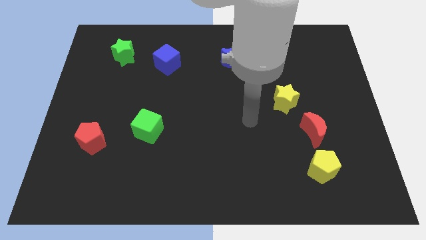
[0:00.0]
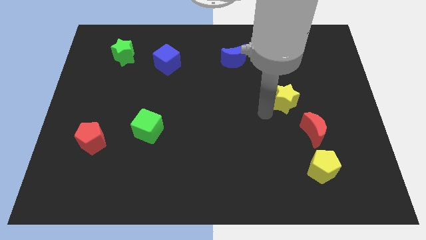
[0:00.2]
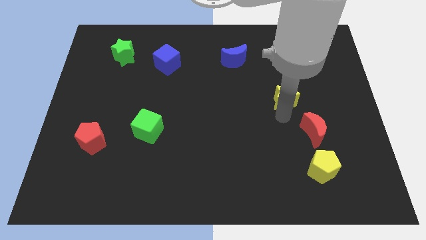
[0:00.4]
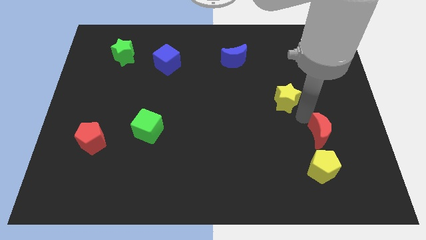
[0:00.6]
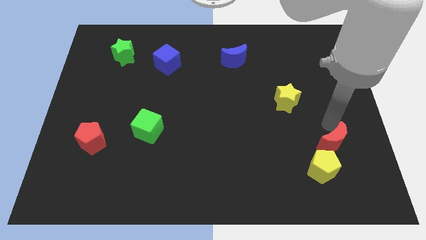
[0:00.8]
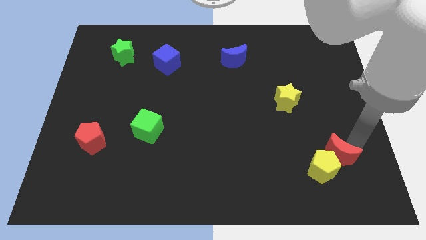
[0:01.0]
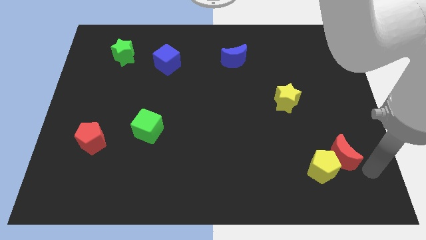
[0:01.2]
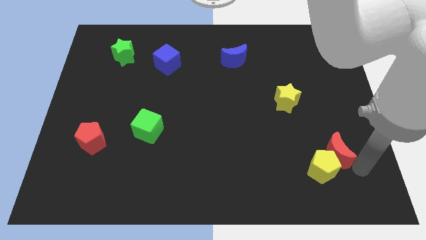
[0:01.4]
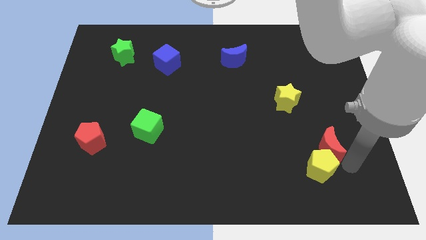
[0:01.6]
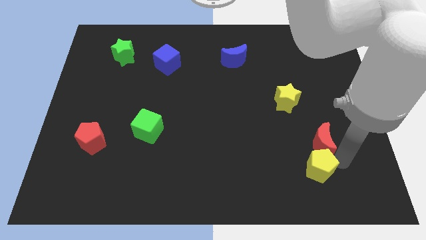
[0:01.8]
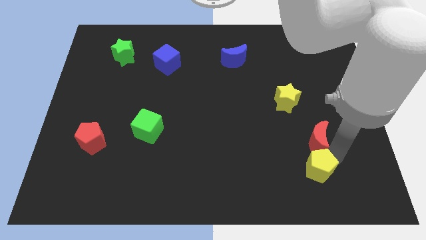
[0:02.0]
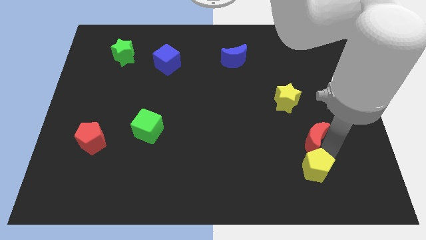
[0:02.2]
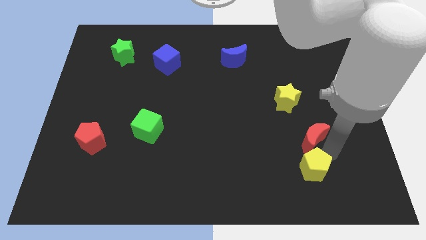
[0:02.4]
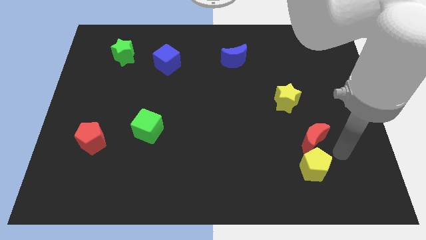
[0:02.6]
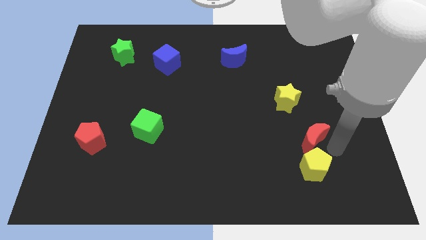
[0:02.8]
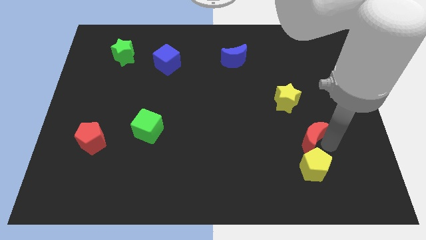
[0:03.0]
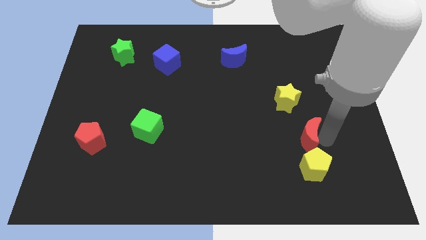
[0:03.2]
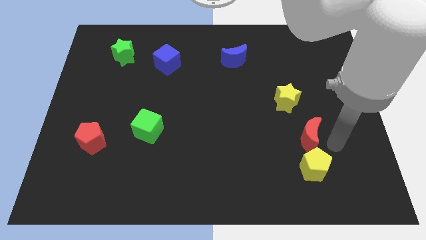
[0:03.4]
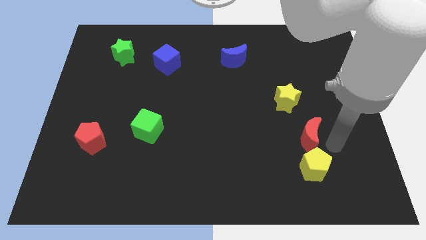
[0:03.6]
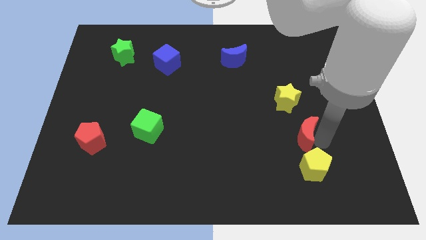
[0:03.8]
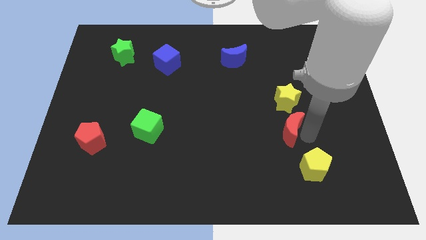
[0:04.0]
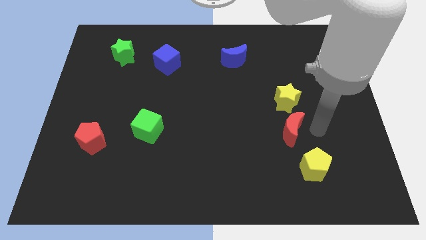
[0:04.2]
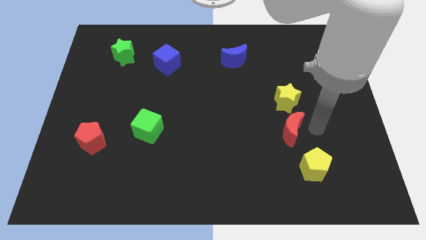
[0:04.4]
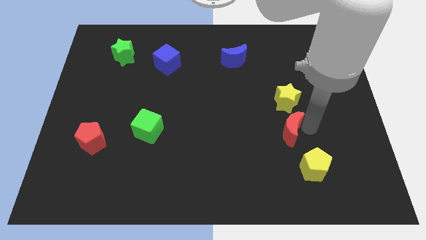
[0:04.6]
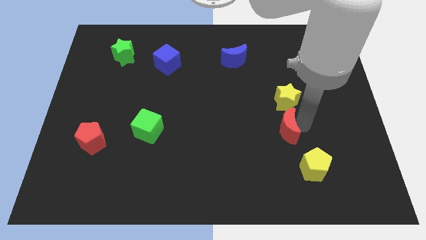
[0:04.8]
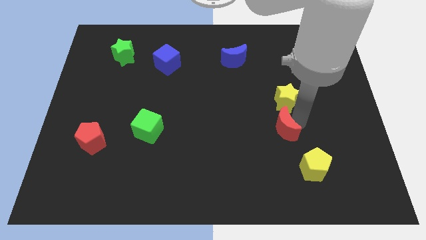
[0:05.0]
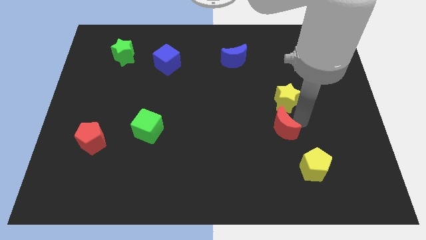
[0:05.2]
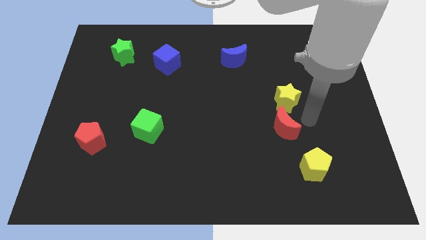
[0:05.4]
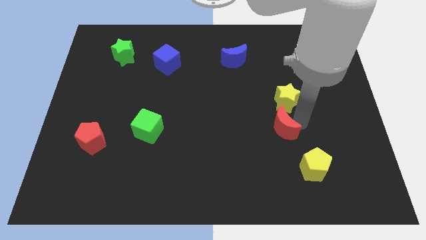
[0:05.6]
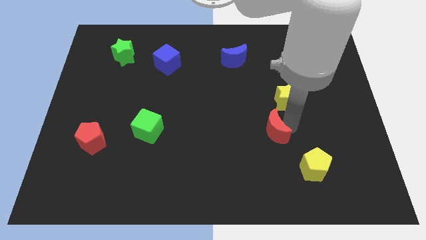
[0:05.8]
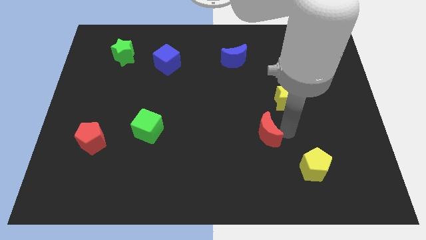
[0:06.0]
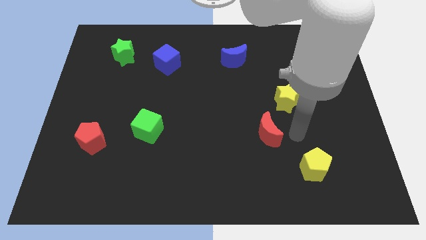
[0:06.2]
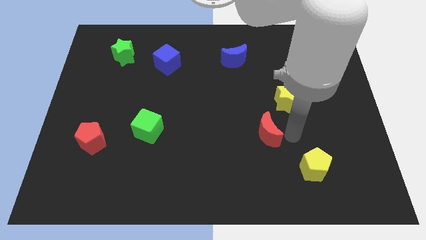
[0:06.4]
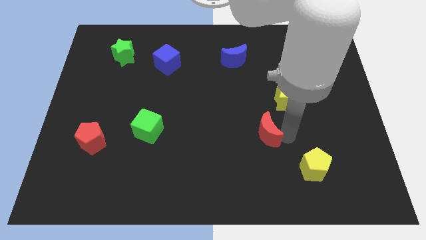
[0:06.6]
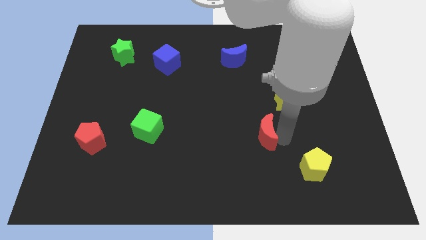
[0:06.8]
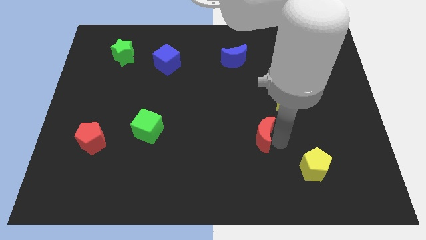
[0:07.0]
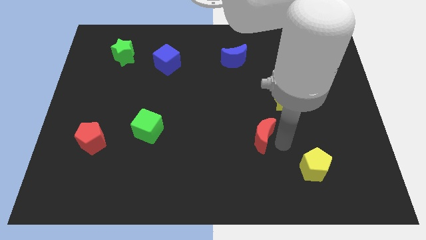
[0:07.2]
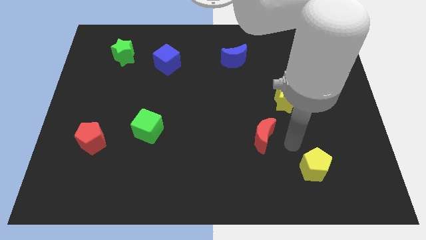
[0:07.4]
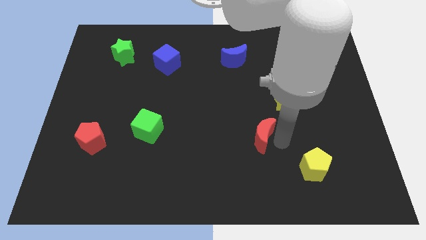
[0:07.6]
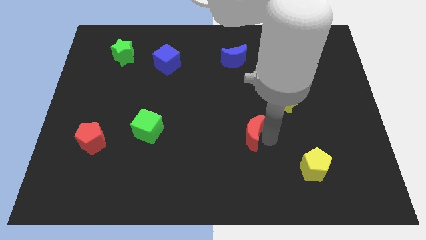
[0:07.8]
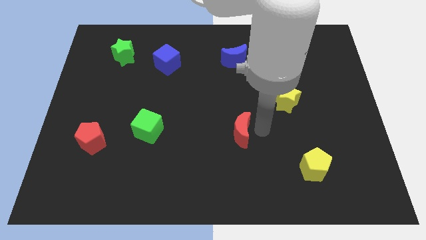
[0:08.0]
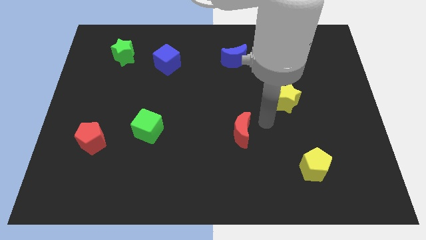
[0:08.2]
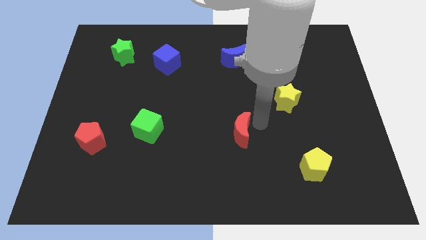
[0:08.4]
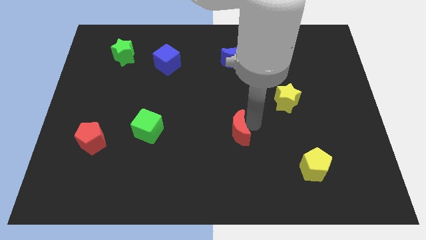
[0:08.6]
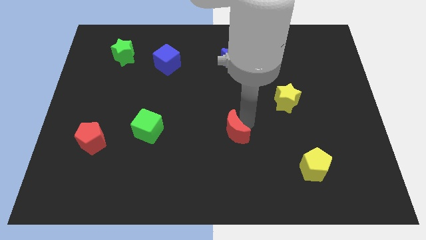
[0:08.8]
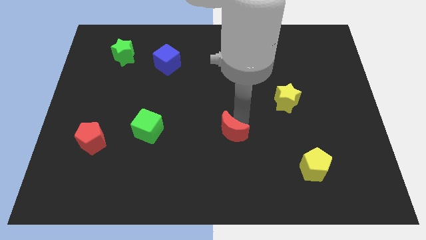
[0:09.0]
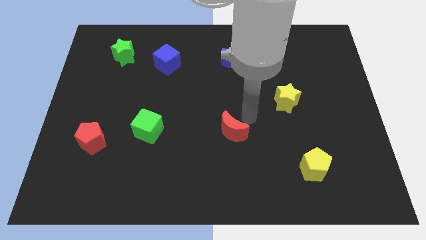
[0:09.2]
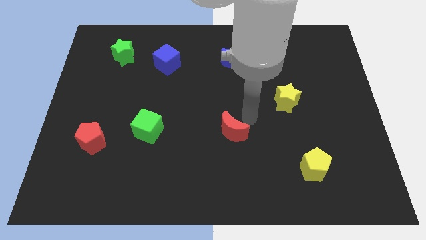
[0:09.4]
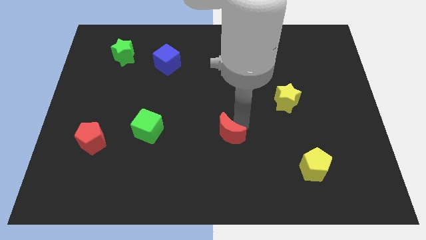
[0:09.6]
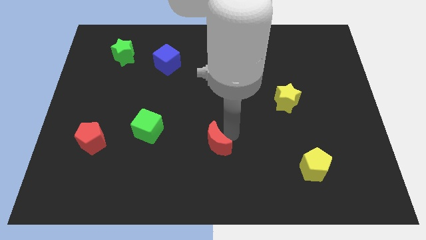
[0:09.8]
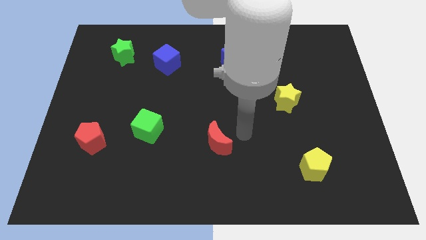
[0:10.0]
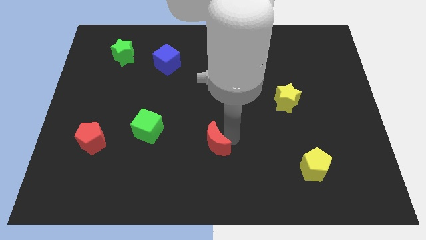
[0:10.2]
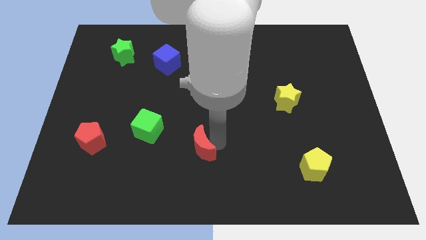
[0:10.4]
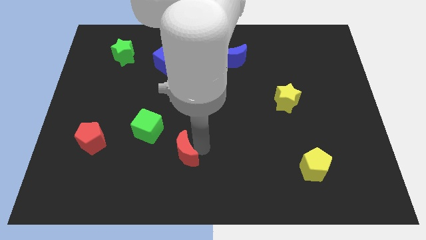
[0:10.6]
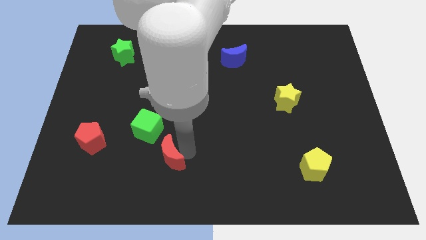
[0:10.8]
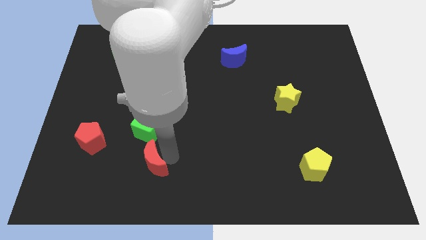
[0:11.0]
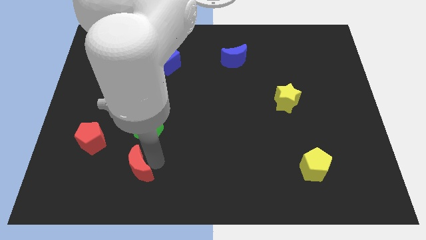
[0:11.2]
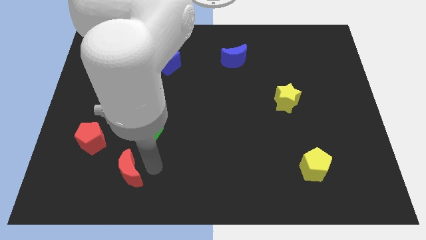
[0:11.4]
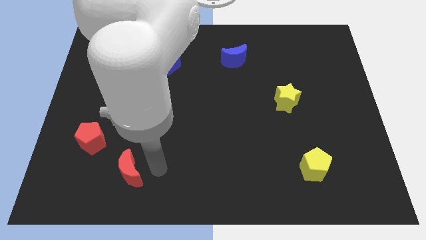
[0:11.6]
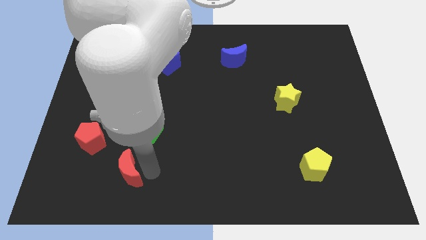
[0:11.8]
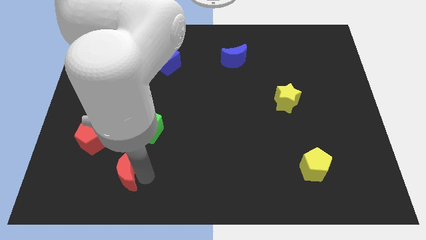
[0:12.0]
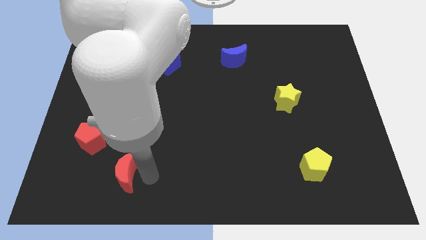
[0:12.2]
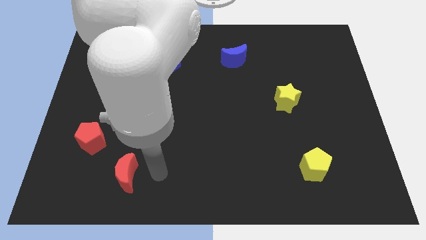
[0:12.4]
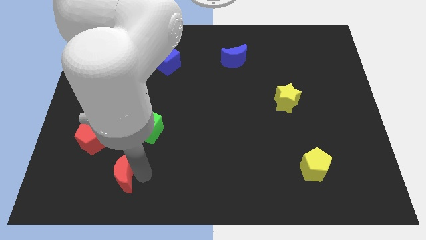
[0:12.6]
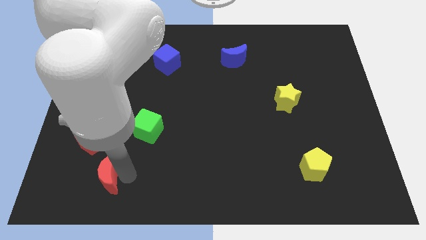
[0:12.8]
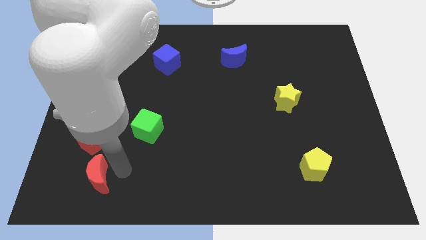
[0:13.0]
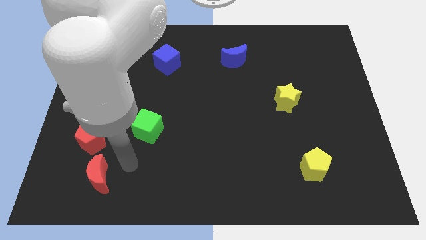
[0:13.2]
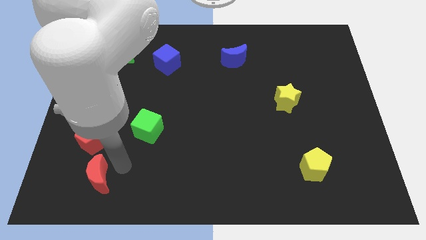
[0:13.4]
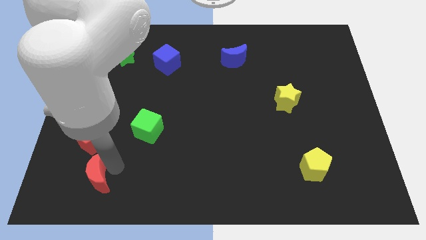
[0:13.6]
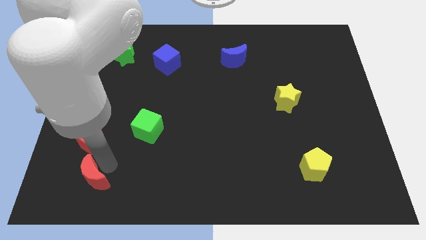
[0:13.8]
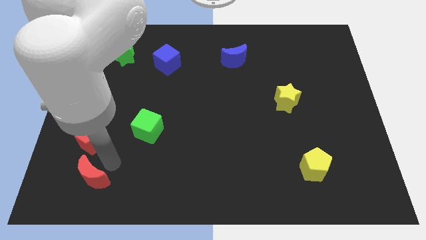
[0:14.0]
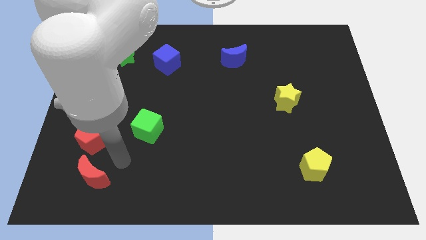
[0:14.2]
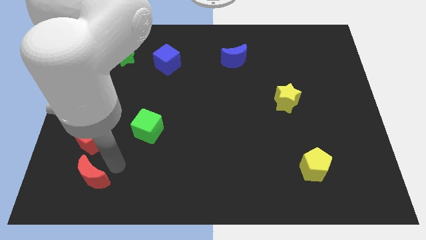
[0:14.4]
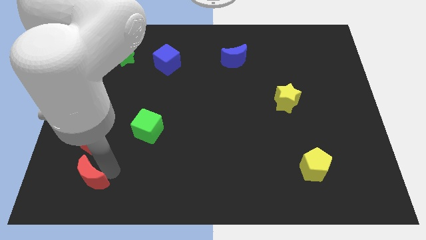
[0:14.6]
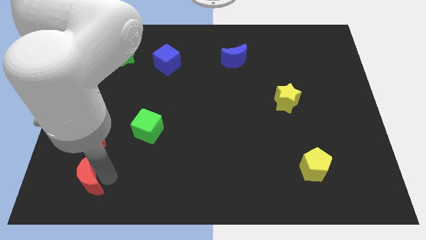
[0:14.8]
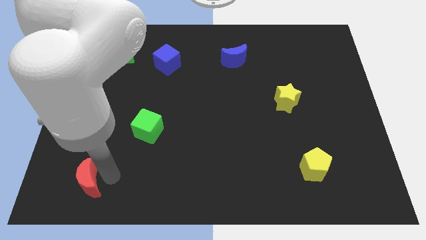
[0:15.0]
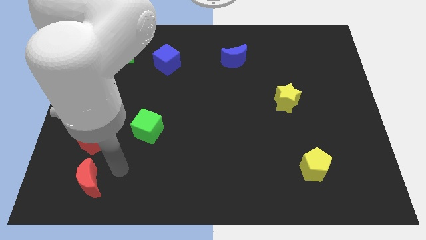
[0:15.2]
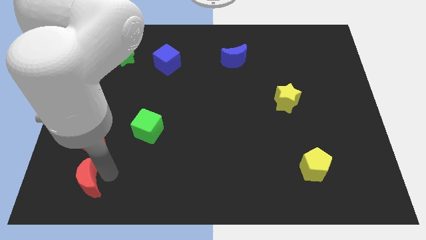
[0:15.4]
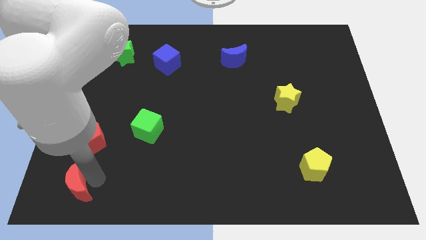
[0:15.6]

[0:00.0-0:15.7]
push the red moon to the bottom left corner
